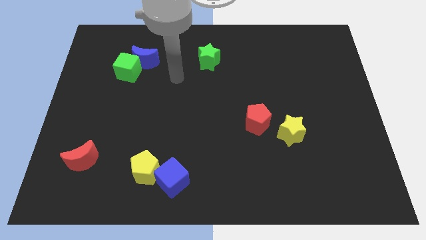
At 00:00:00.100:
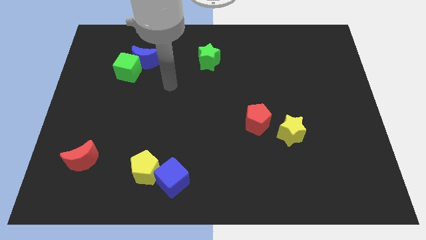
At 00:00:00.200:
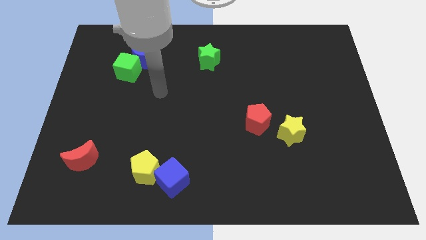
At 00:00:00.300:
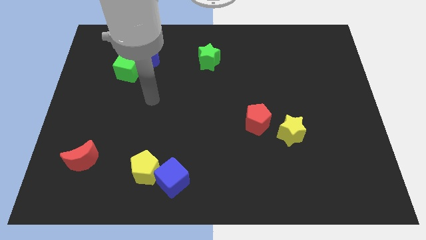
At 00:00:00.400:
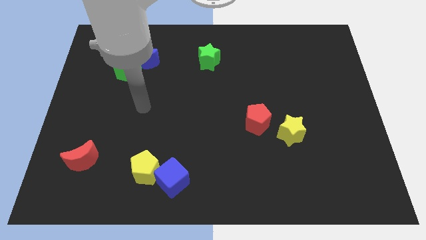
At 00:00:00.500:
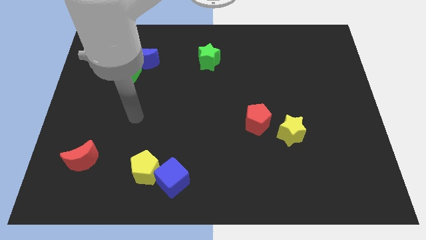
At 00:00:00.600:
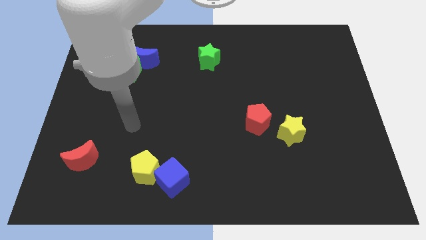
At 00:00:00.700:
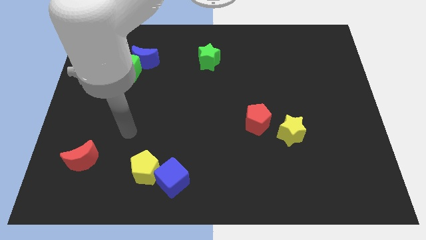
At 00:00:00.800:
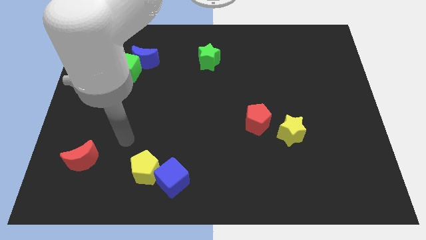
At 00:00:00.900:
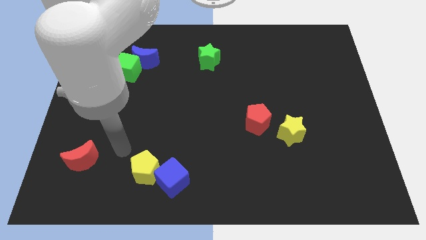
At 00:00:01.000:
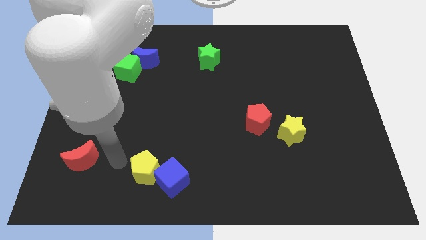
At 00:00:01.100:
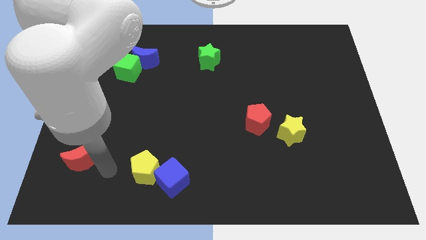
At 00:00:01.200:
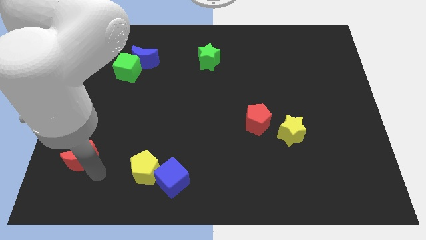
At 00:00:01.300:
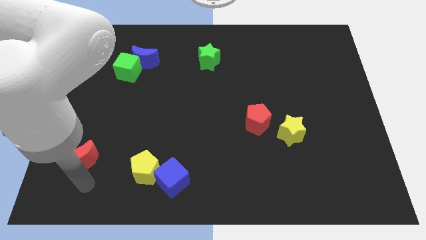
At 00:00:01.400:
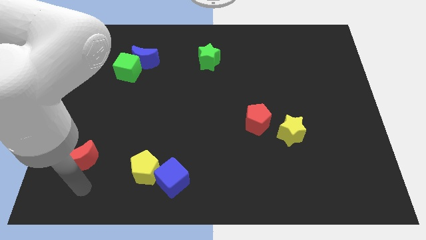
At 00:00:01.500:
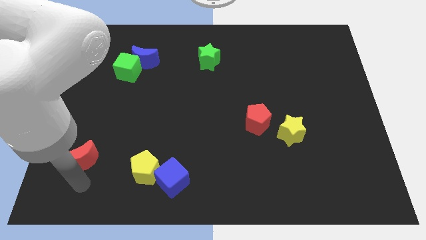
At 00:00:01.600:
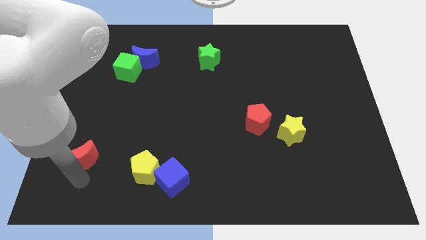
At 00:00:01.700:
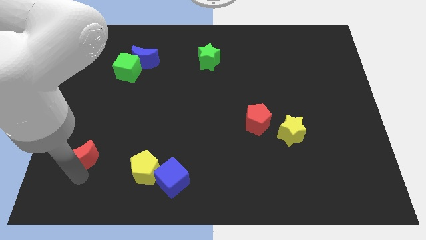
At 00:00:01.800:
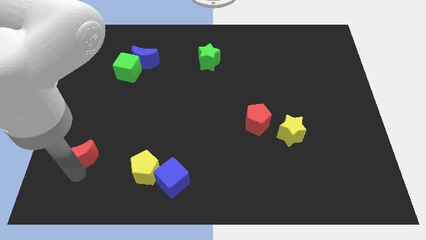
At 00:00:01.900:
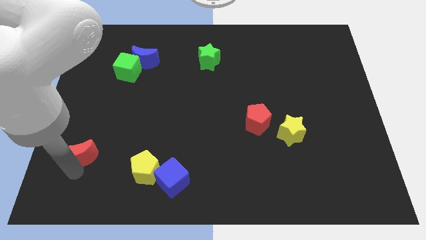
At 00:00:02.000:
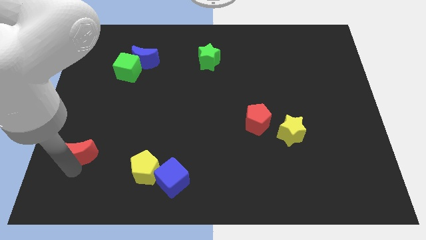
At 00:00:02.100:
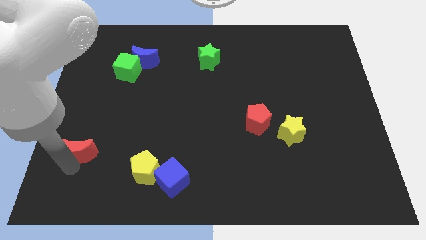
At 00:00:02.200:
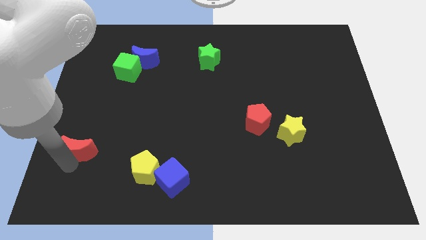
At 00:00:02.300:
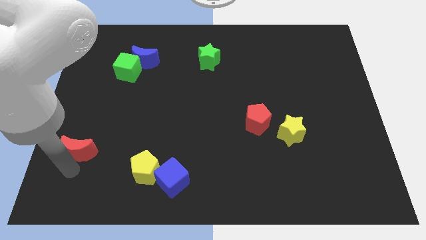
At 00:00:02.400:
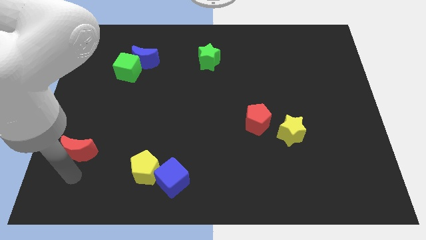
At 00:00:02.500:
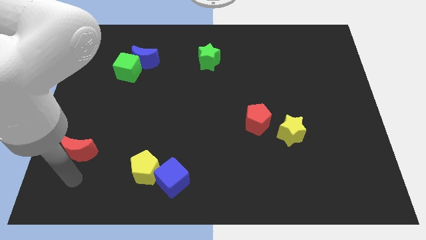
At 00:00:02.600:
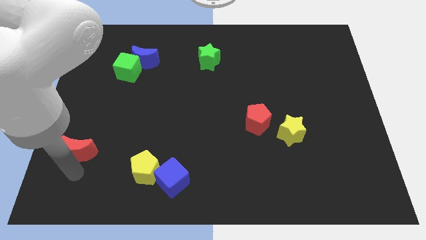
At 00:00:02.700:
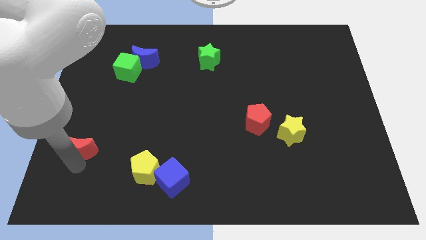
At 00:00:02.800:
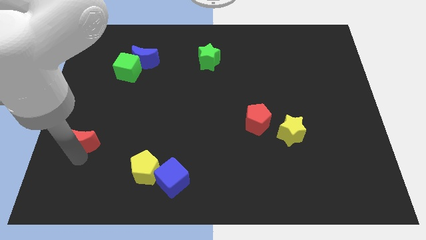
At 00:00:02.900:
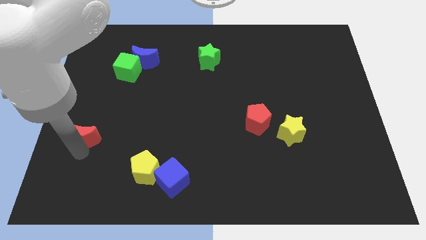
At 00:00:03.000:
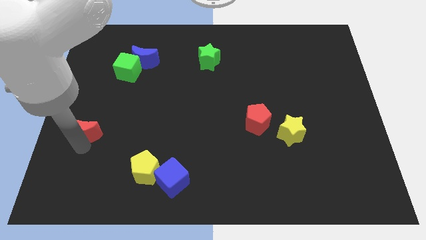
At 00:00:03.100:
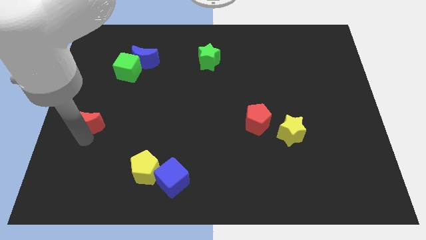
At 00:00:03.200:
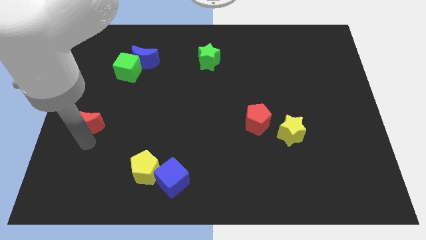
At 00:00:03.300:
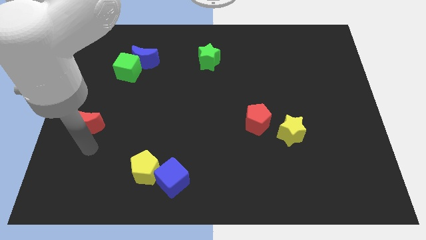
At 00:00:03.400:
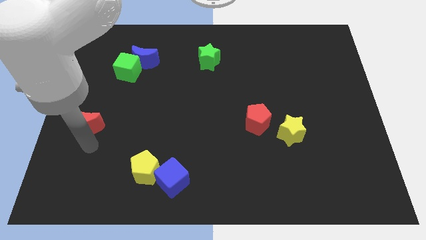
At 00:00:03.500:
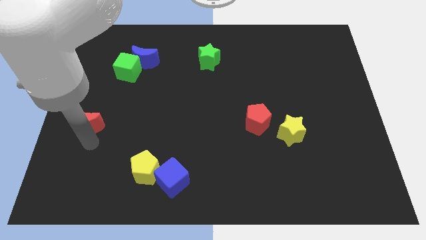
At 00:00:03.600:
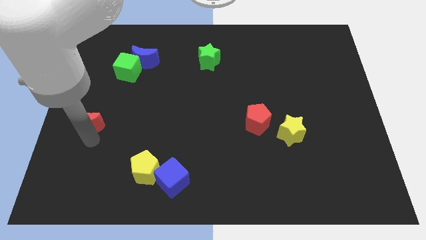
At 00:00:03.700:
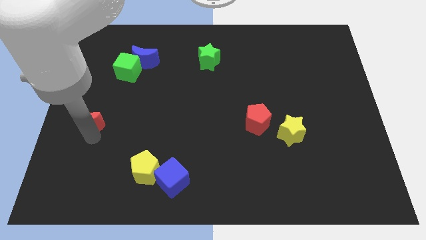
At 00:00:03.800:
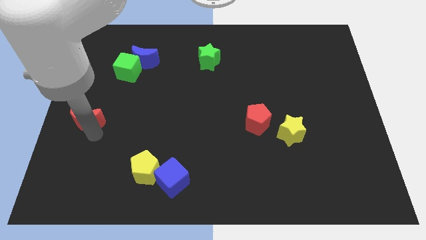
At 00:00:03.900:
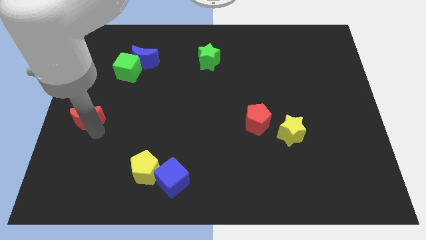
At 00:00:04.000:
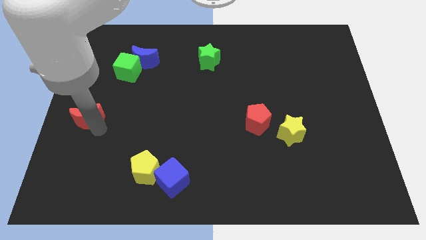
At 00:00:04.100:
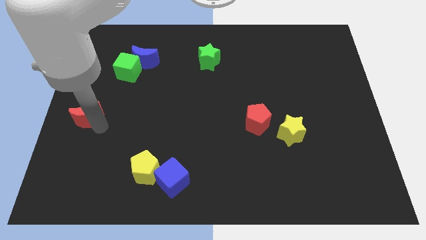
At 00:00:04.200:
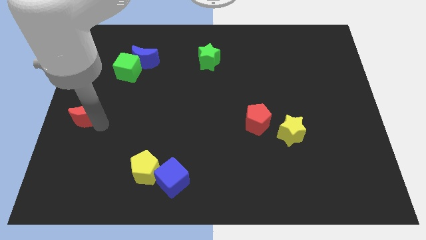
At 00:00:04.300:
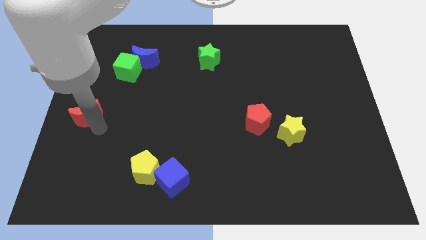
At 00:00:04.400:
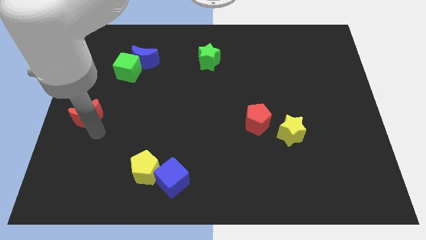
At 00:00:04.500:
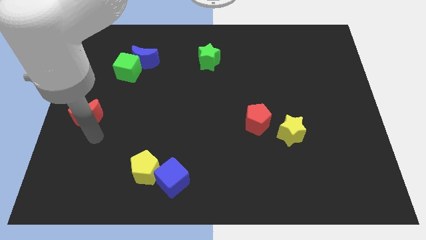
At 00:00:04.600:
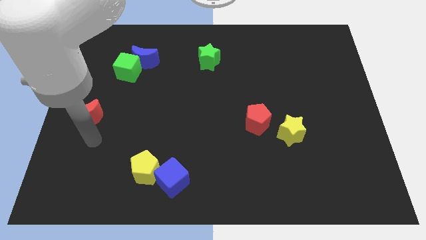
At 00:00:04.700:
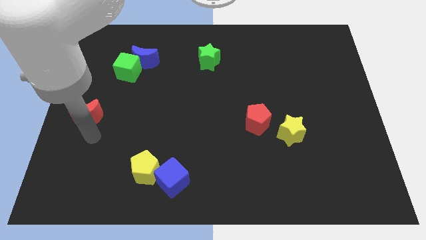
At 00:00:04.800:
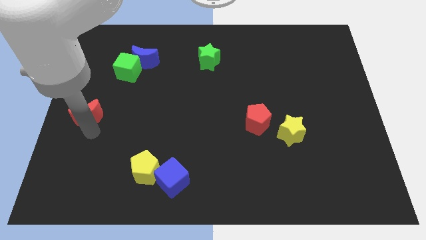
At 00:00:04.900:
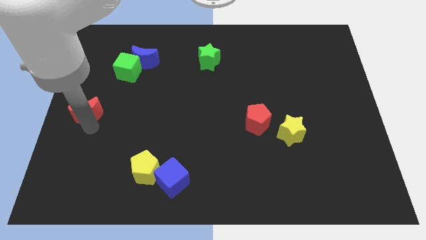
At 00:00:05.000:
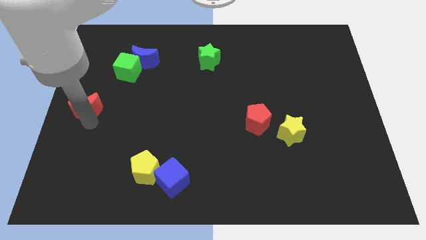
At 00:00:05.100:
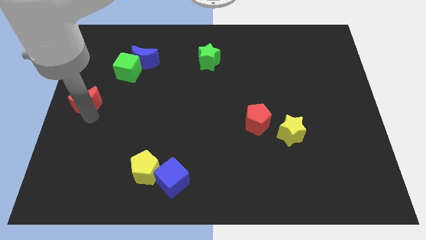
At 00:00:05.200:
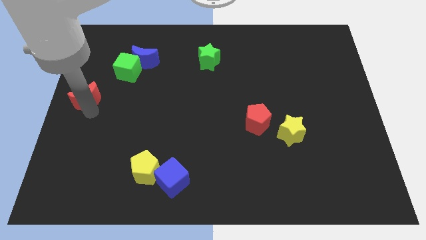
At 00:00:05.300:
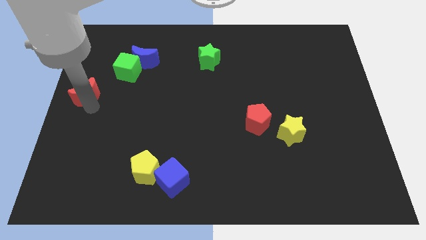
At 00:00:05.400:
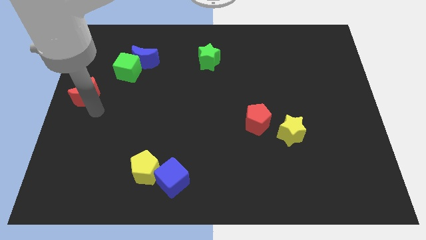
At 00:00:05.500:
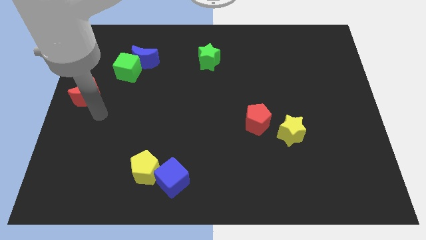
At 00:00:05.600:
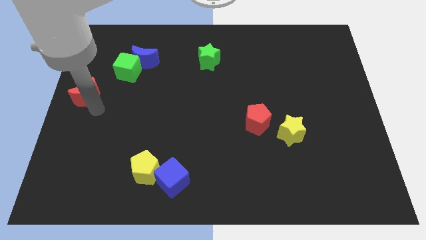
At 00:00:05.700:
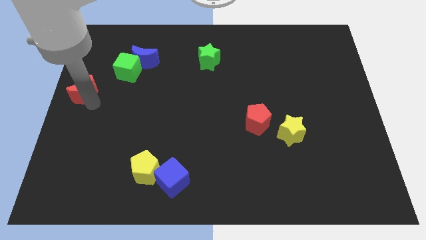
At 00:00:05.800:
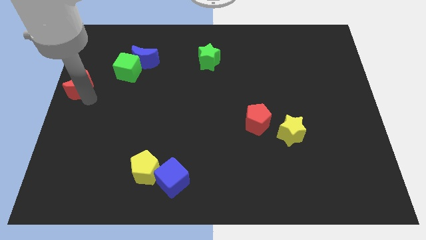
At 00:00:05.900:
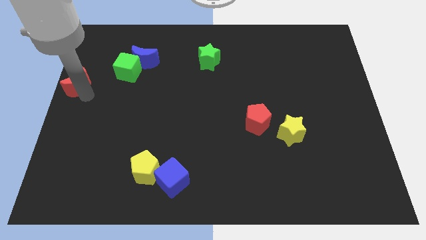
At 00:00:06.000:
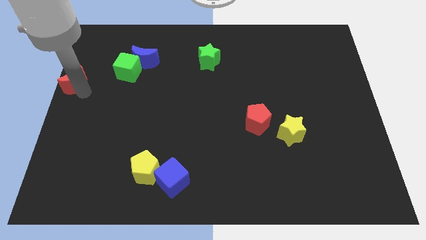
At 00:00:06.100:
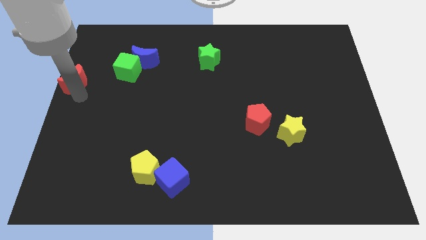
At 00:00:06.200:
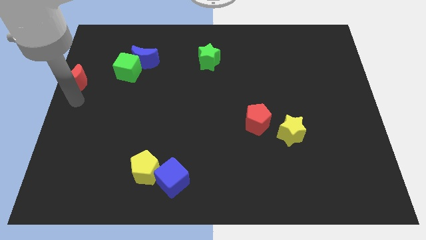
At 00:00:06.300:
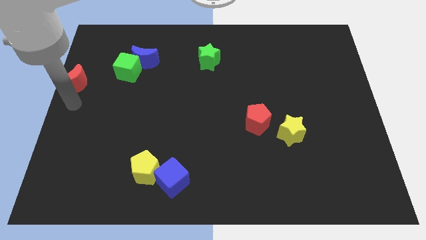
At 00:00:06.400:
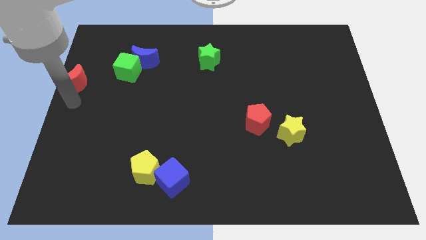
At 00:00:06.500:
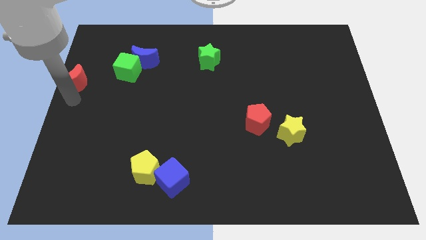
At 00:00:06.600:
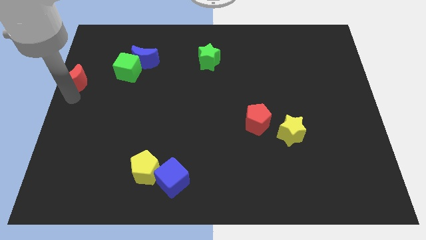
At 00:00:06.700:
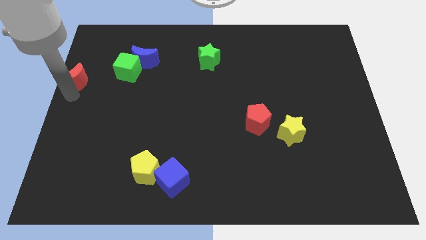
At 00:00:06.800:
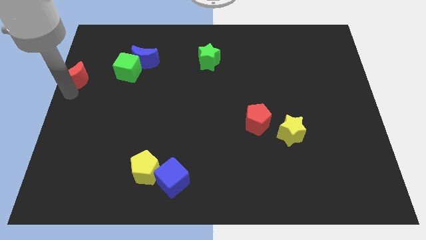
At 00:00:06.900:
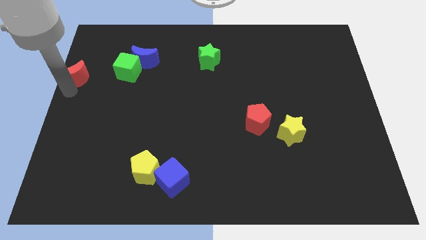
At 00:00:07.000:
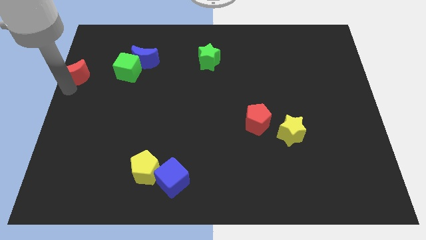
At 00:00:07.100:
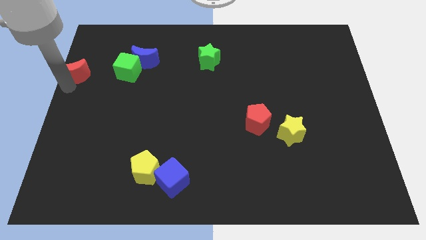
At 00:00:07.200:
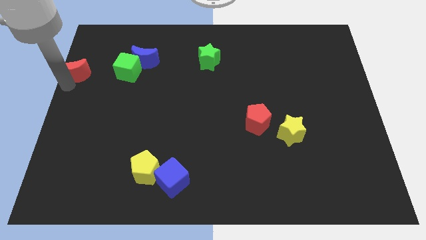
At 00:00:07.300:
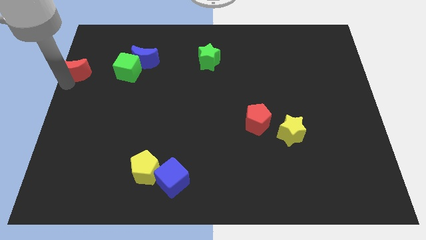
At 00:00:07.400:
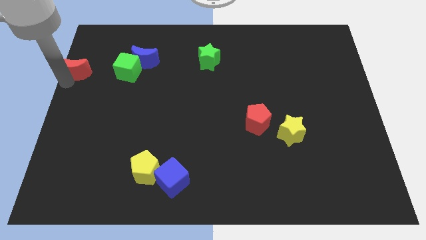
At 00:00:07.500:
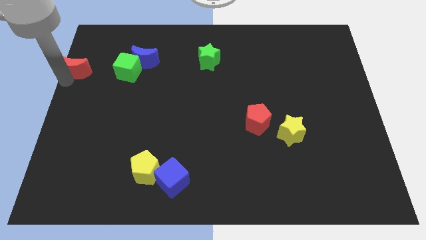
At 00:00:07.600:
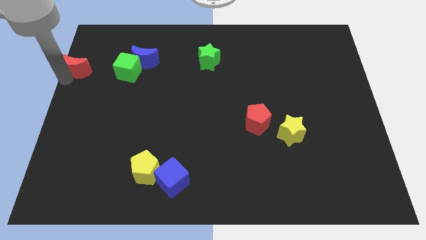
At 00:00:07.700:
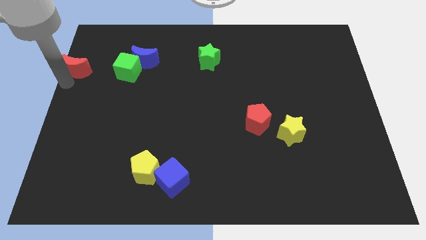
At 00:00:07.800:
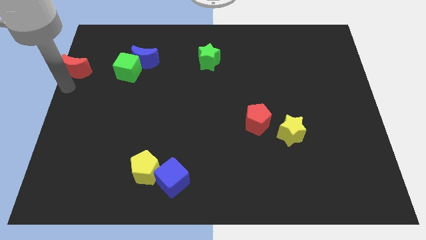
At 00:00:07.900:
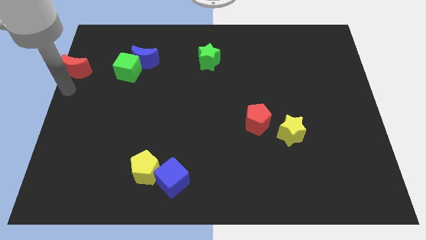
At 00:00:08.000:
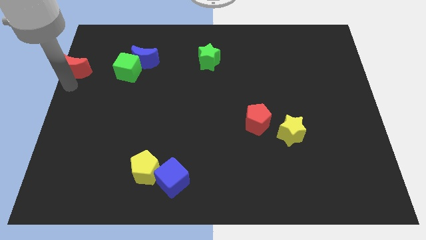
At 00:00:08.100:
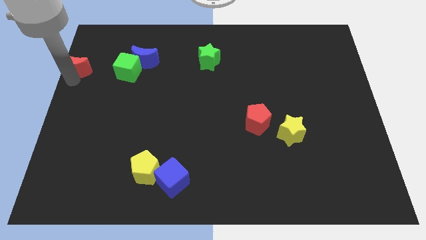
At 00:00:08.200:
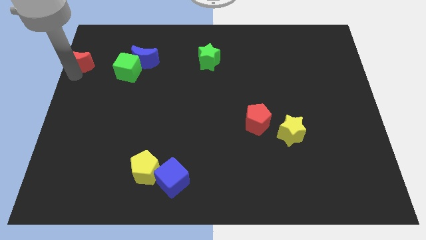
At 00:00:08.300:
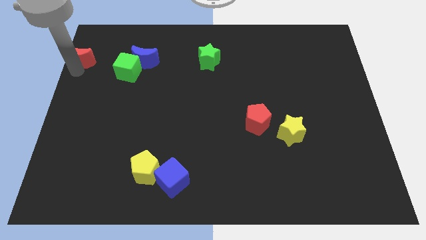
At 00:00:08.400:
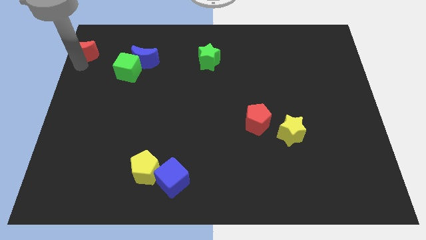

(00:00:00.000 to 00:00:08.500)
put the red moon to the top left
